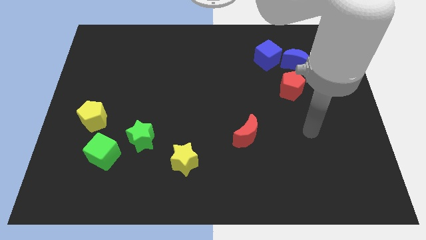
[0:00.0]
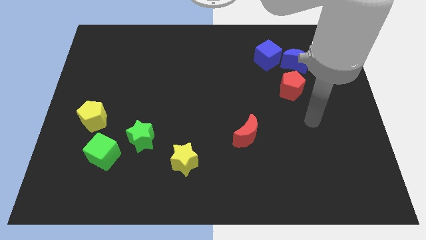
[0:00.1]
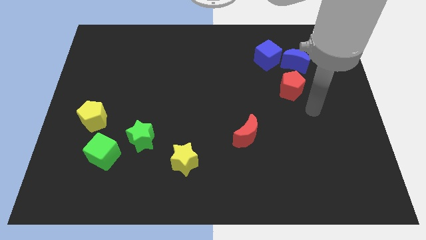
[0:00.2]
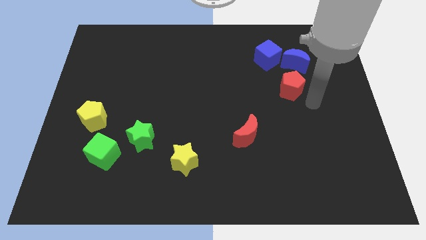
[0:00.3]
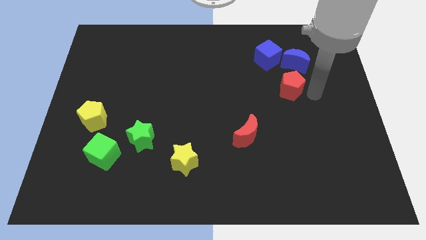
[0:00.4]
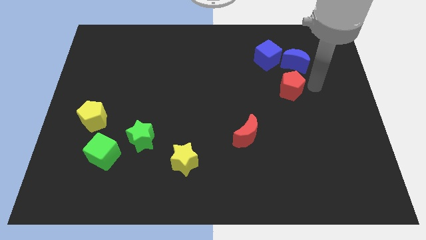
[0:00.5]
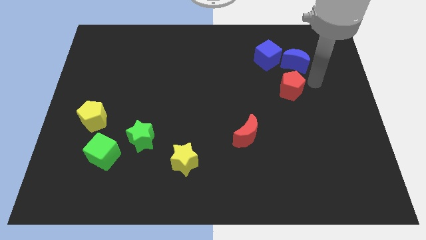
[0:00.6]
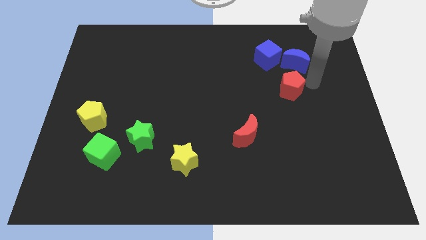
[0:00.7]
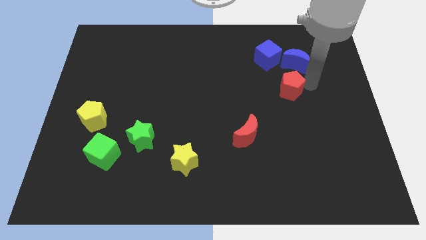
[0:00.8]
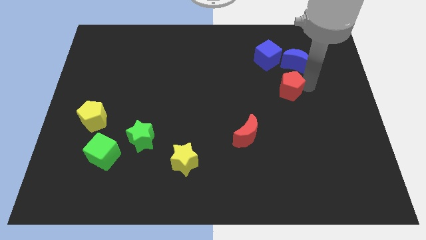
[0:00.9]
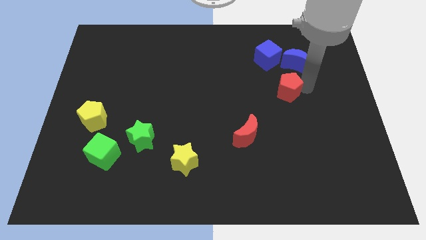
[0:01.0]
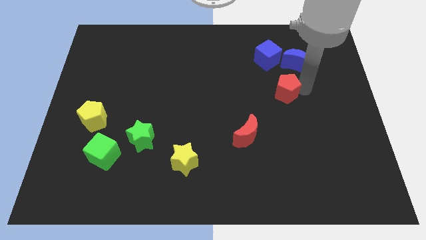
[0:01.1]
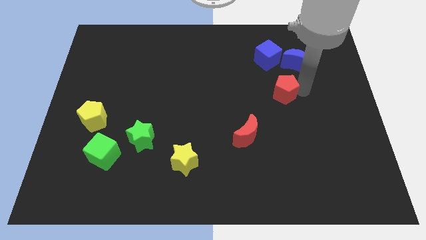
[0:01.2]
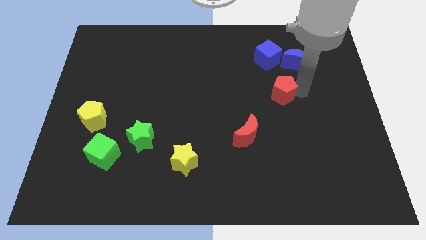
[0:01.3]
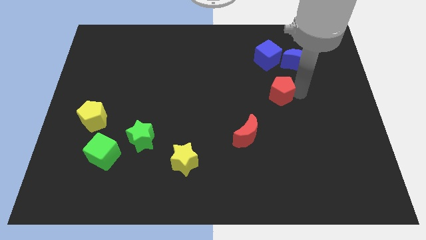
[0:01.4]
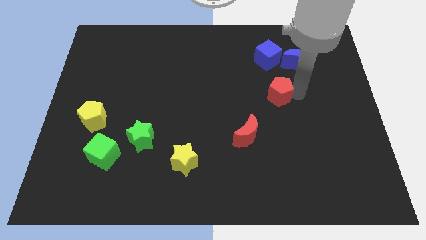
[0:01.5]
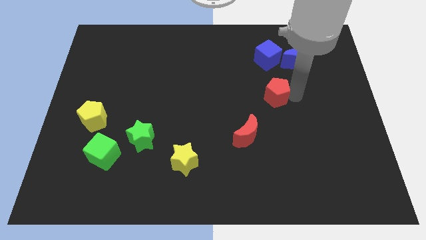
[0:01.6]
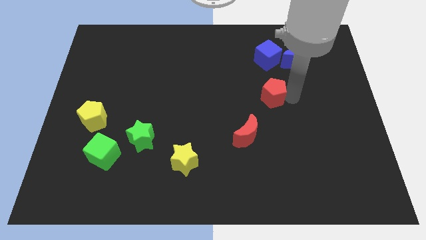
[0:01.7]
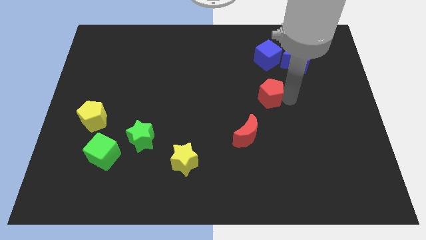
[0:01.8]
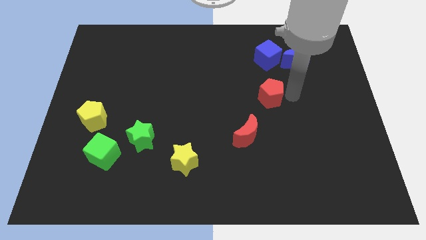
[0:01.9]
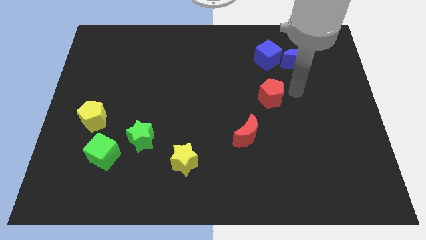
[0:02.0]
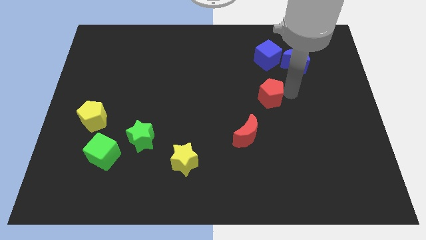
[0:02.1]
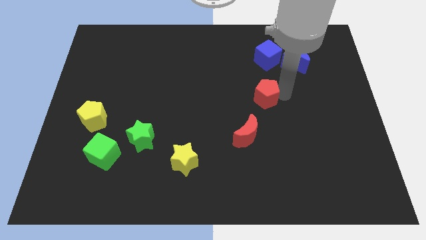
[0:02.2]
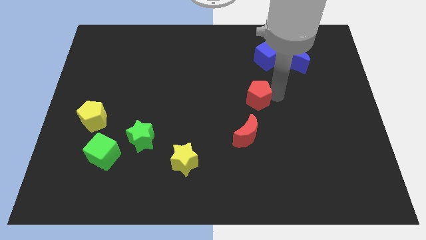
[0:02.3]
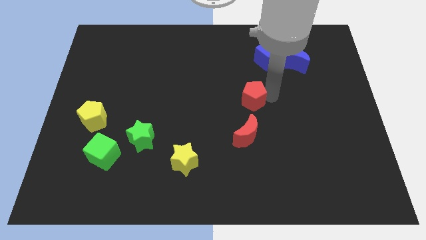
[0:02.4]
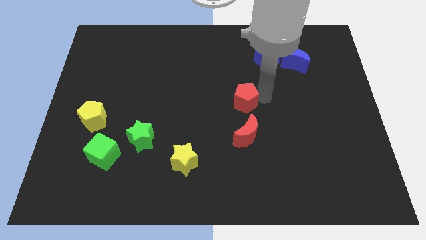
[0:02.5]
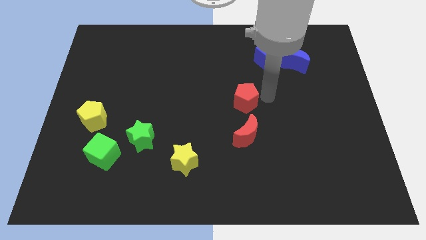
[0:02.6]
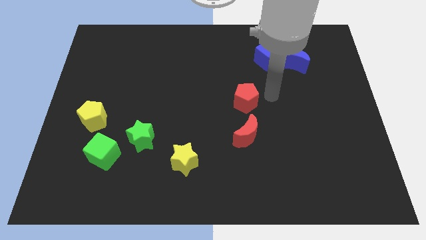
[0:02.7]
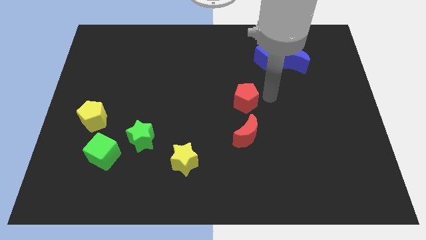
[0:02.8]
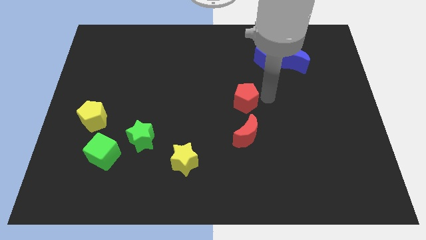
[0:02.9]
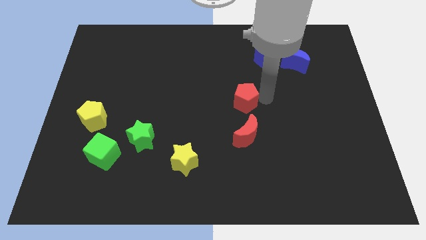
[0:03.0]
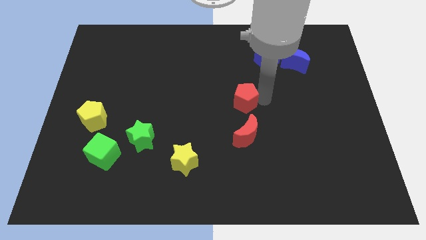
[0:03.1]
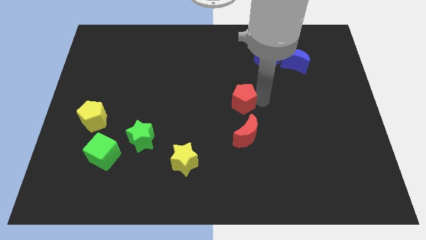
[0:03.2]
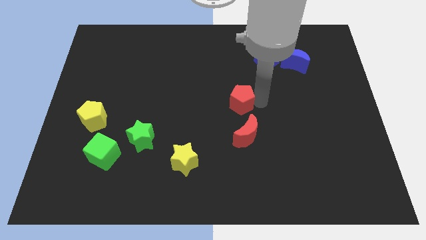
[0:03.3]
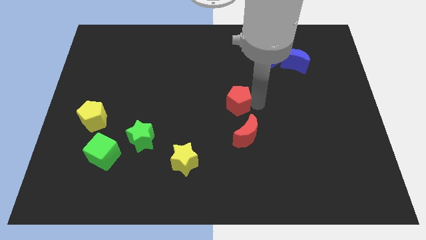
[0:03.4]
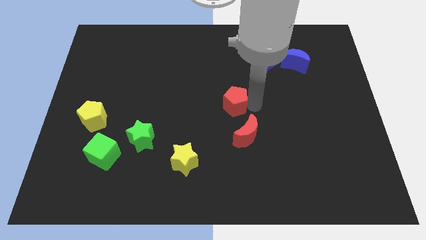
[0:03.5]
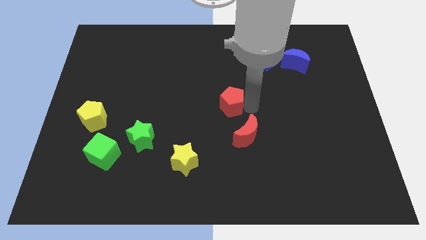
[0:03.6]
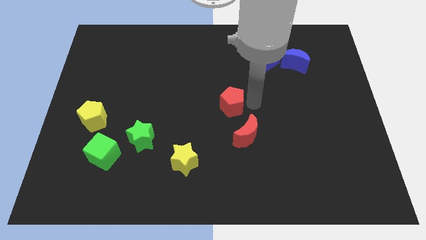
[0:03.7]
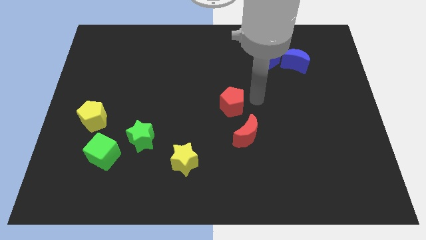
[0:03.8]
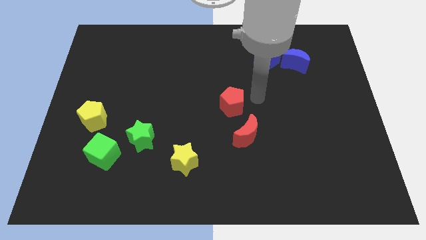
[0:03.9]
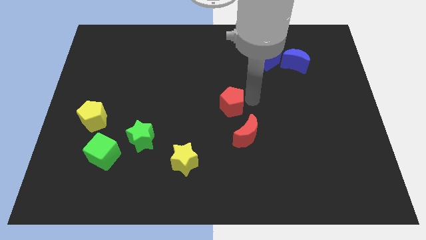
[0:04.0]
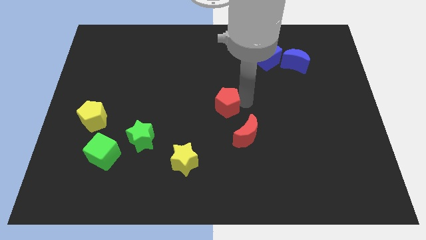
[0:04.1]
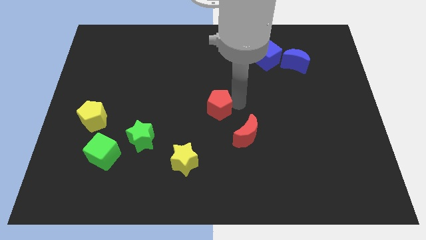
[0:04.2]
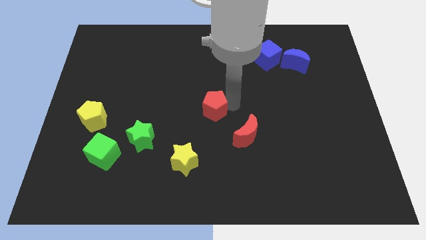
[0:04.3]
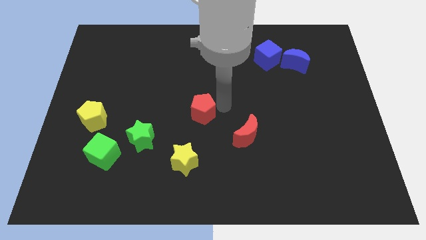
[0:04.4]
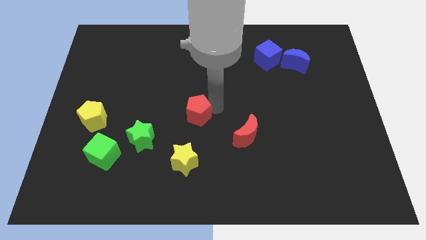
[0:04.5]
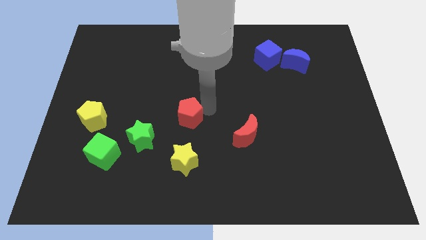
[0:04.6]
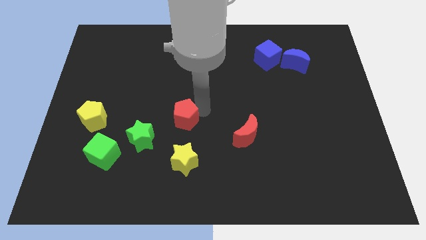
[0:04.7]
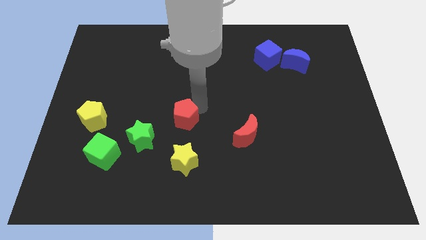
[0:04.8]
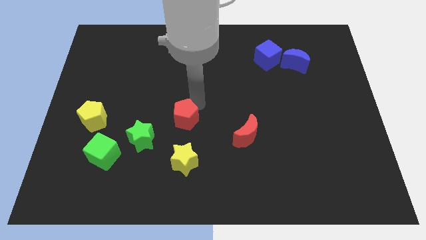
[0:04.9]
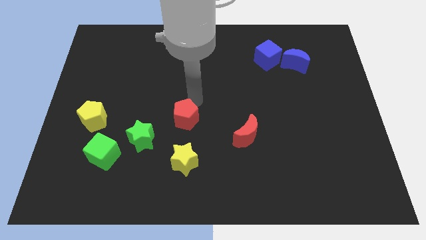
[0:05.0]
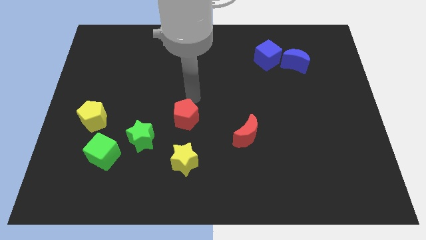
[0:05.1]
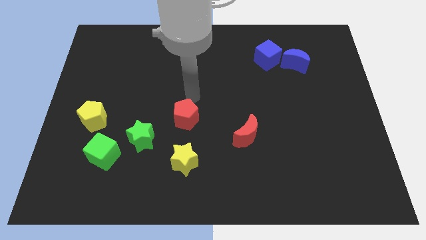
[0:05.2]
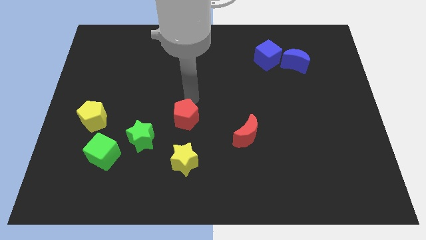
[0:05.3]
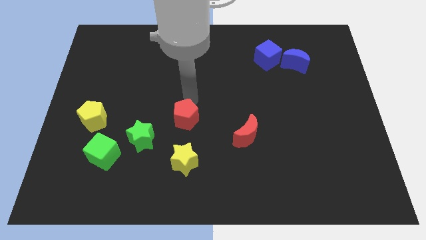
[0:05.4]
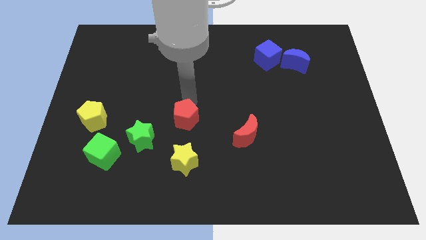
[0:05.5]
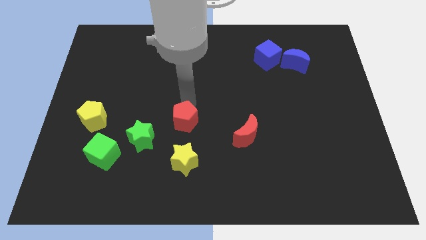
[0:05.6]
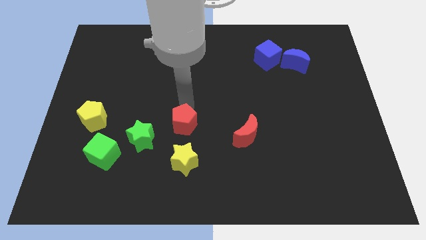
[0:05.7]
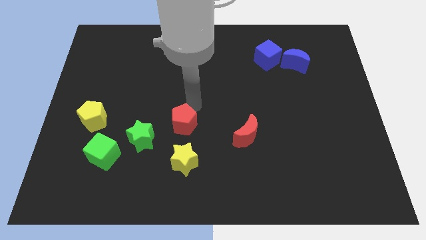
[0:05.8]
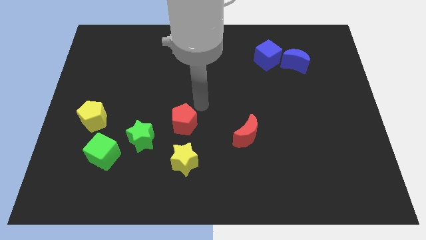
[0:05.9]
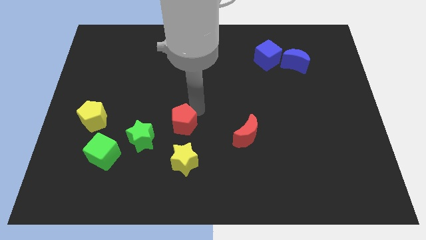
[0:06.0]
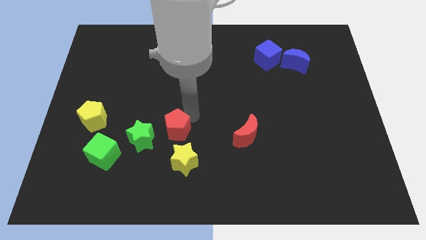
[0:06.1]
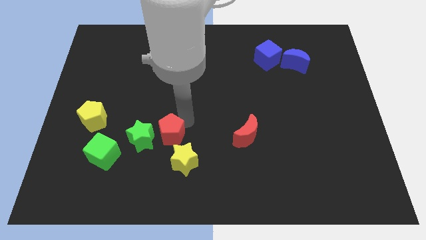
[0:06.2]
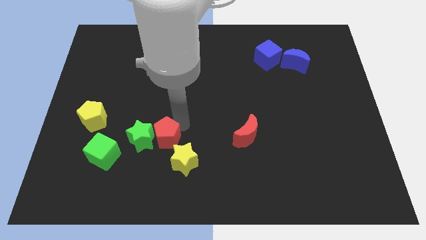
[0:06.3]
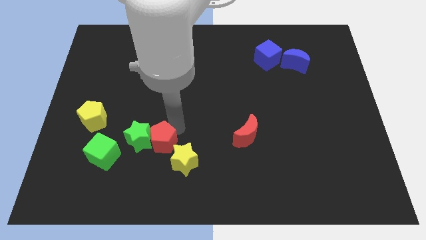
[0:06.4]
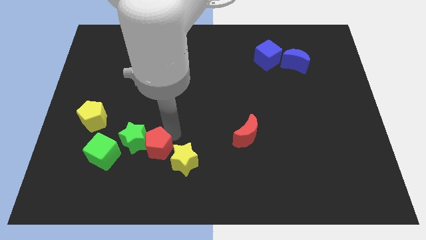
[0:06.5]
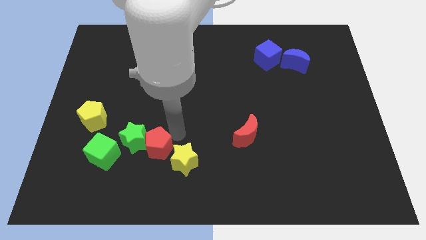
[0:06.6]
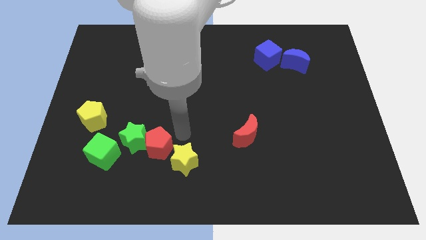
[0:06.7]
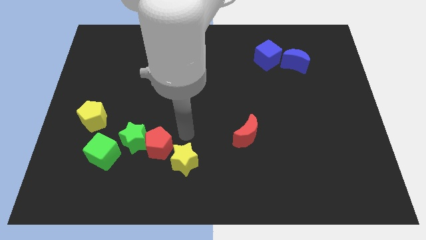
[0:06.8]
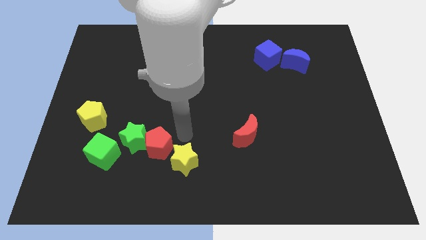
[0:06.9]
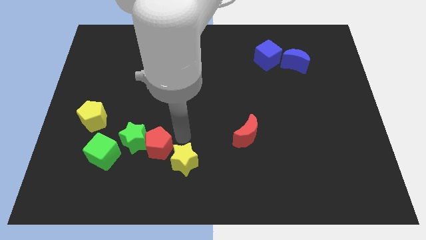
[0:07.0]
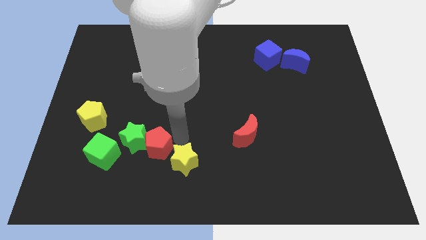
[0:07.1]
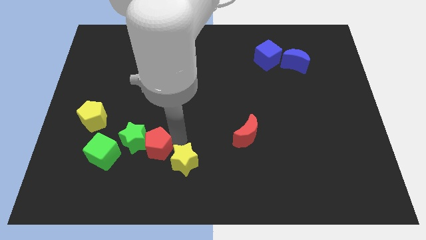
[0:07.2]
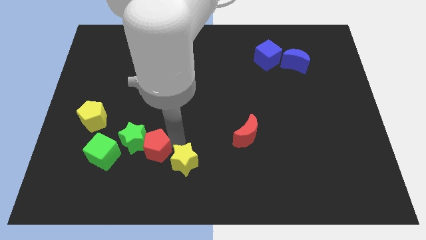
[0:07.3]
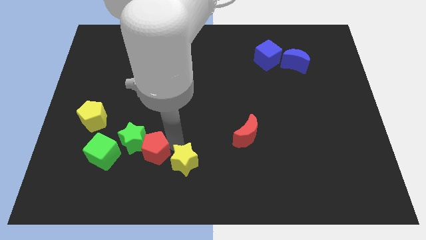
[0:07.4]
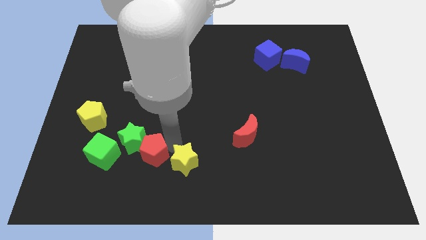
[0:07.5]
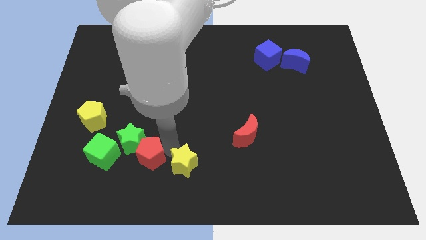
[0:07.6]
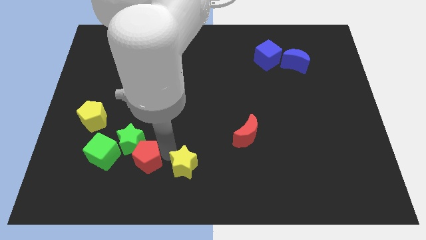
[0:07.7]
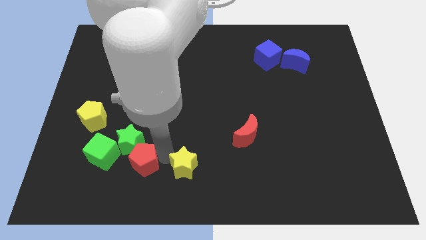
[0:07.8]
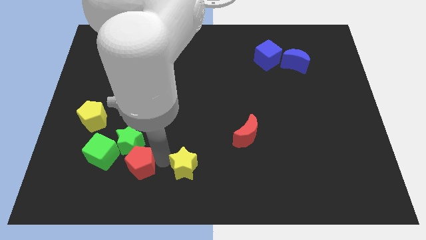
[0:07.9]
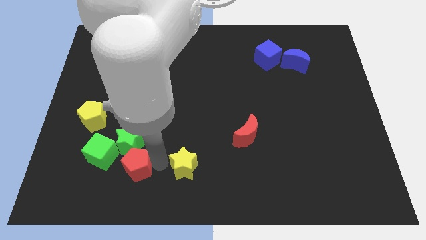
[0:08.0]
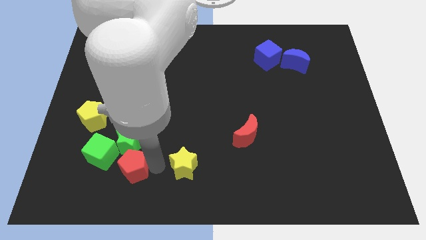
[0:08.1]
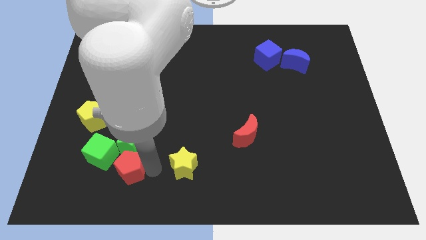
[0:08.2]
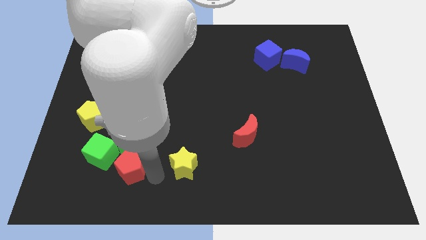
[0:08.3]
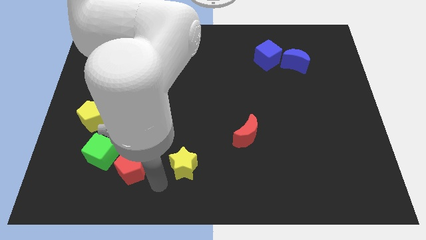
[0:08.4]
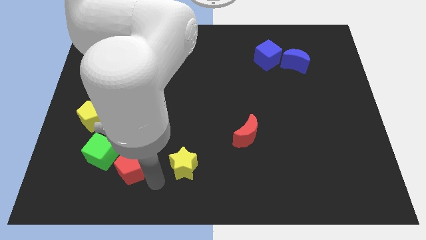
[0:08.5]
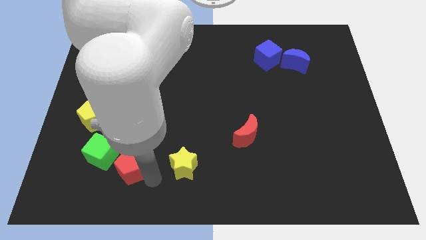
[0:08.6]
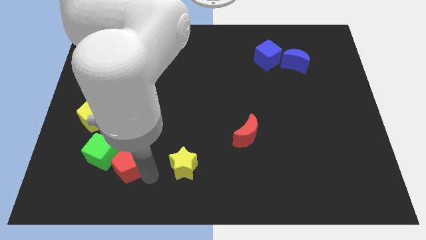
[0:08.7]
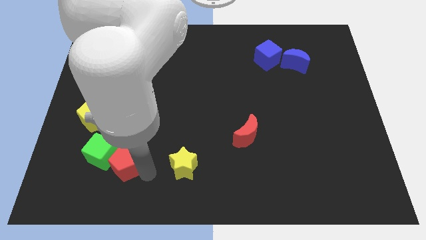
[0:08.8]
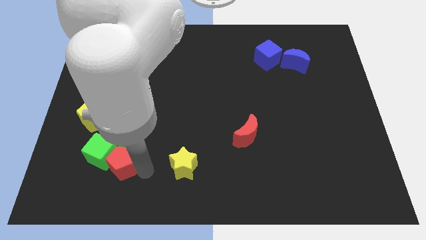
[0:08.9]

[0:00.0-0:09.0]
push the red pentagon towards the green cube
